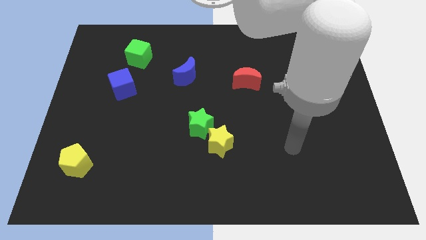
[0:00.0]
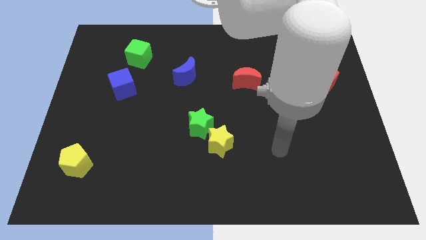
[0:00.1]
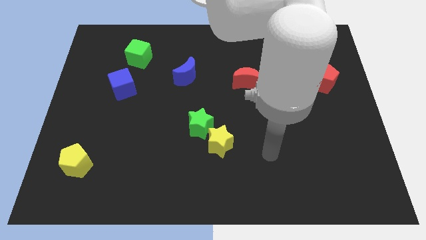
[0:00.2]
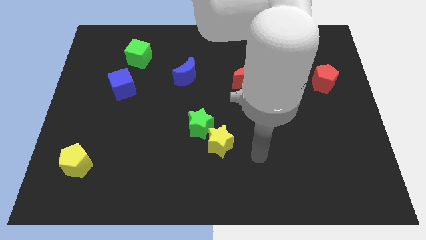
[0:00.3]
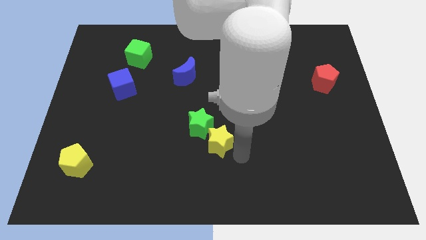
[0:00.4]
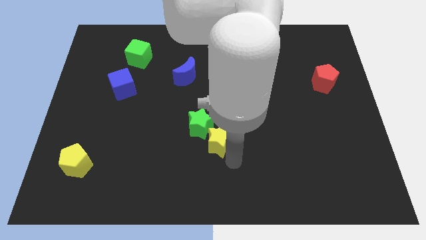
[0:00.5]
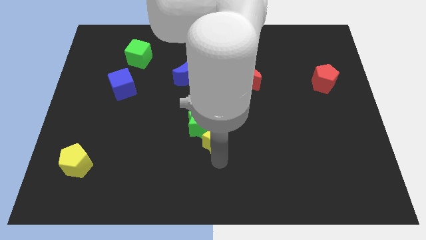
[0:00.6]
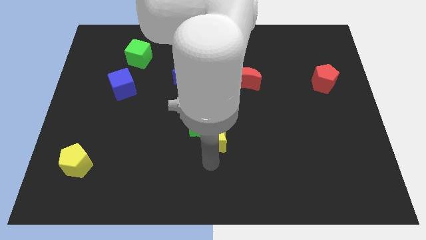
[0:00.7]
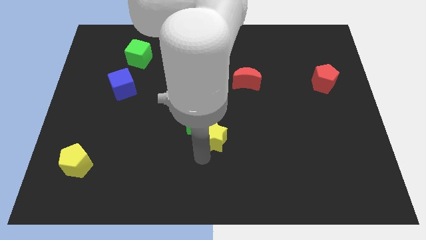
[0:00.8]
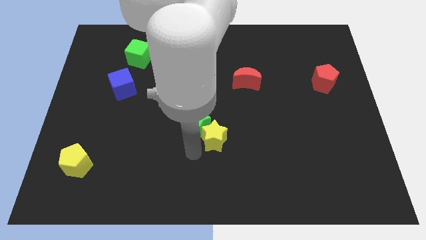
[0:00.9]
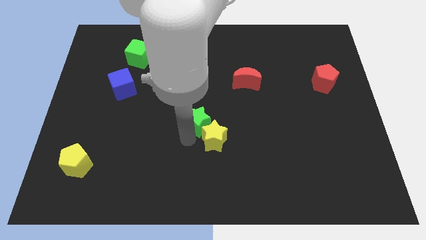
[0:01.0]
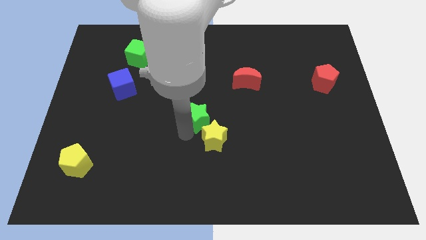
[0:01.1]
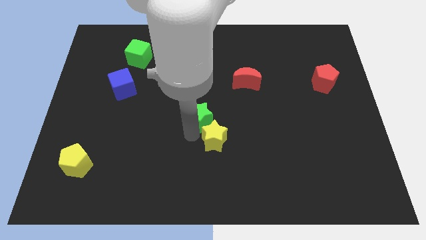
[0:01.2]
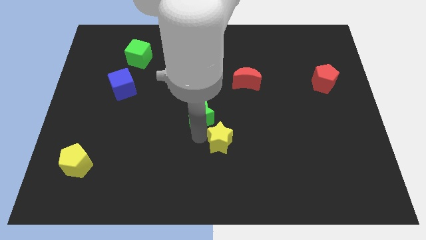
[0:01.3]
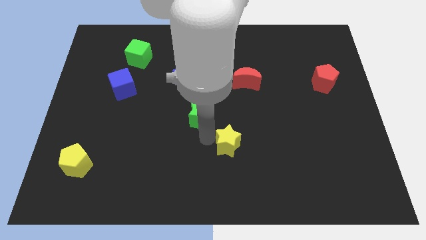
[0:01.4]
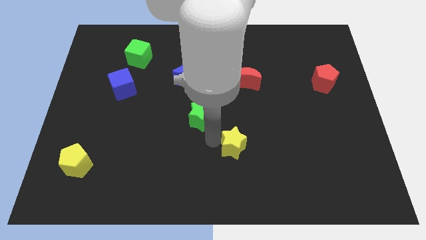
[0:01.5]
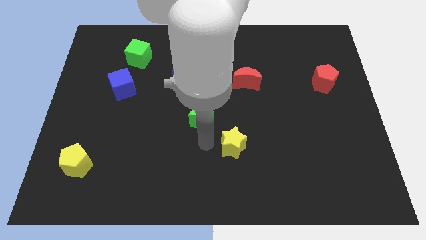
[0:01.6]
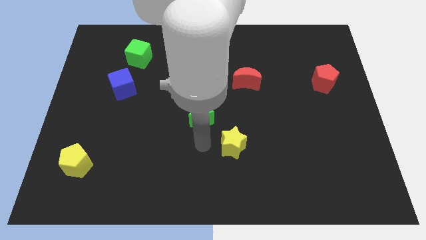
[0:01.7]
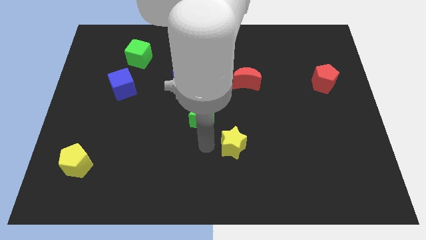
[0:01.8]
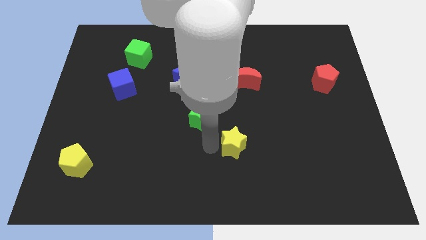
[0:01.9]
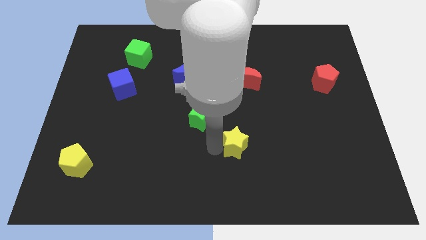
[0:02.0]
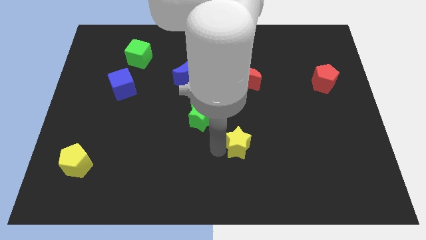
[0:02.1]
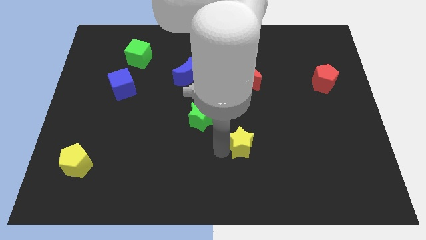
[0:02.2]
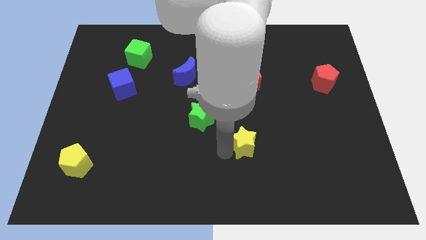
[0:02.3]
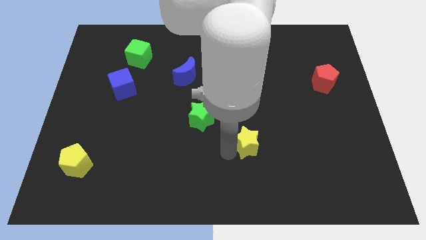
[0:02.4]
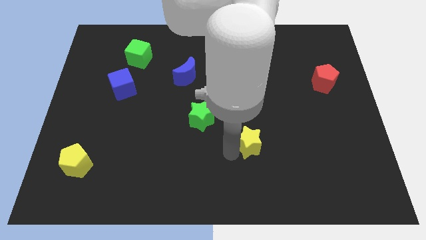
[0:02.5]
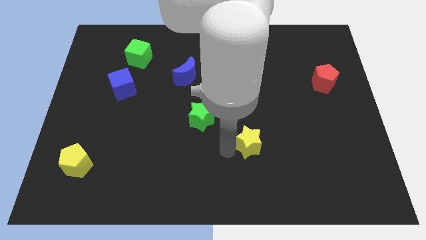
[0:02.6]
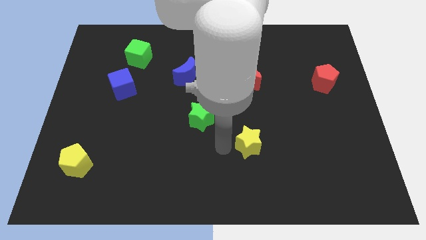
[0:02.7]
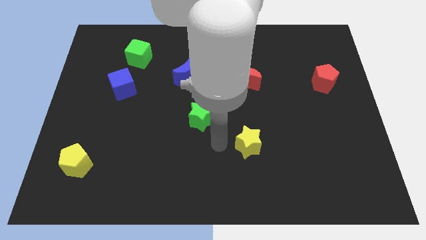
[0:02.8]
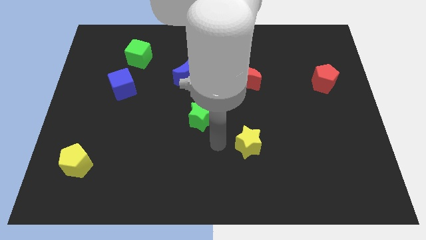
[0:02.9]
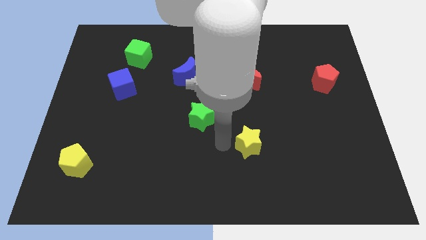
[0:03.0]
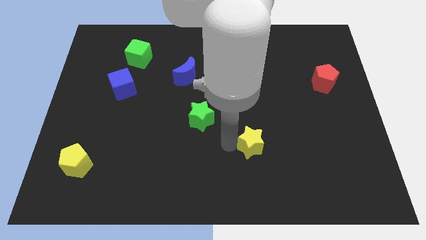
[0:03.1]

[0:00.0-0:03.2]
slightly push the yellow star to the right

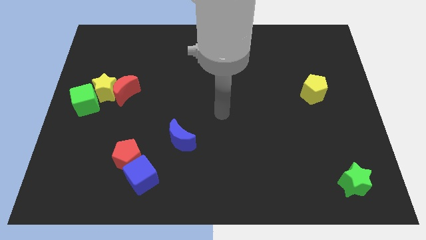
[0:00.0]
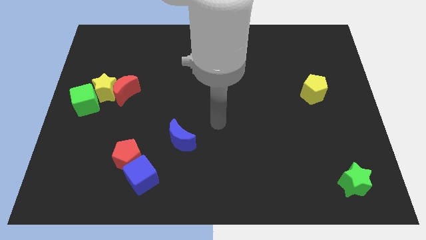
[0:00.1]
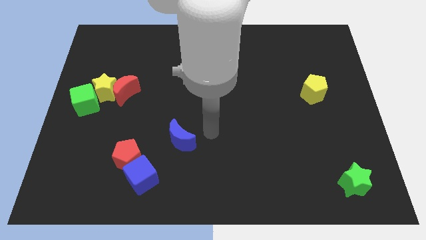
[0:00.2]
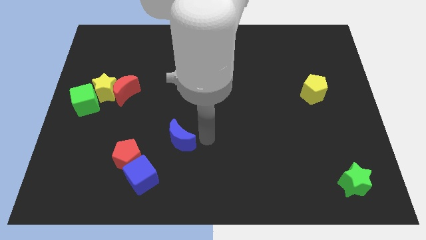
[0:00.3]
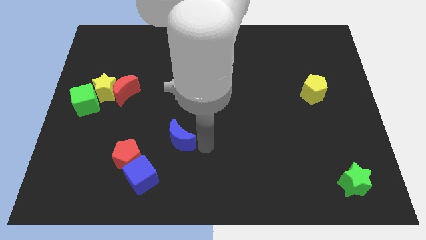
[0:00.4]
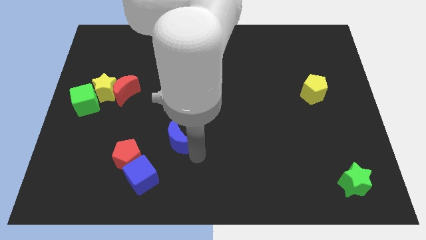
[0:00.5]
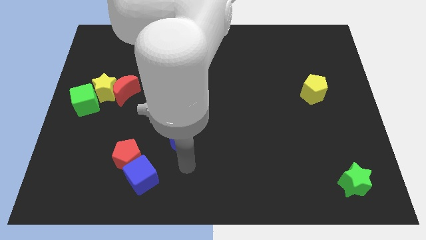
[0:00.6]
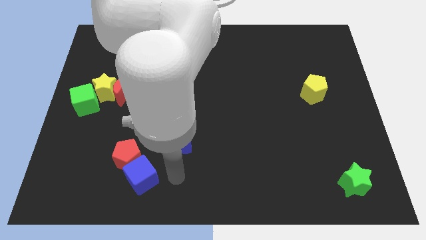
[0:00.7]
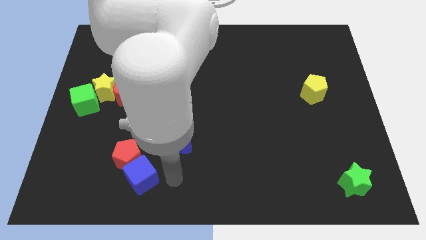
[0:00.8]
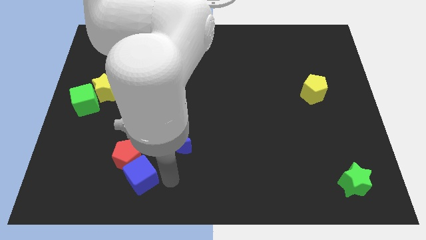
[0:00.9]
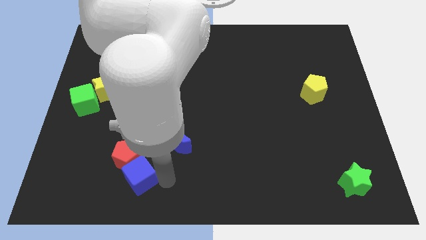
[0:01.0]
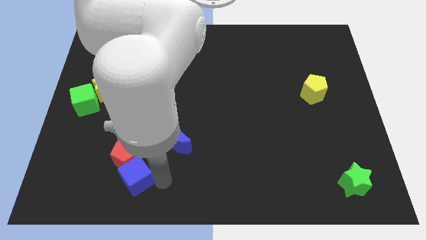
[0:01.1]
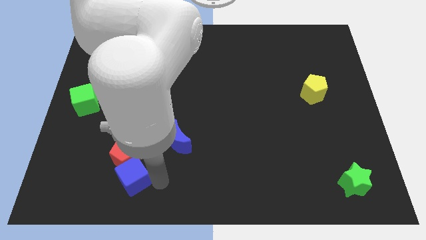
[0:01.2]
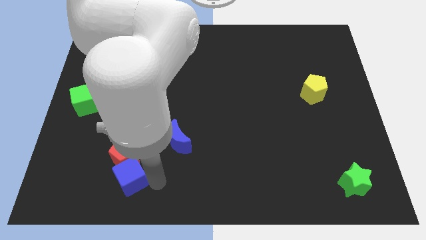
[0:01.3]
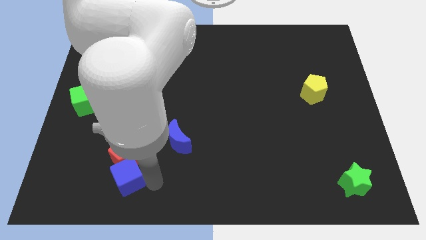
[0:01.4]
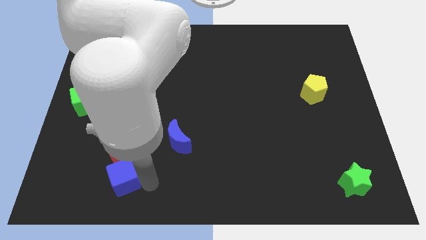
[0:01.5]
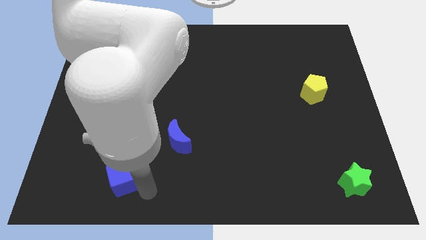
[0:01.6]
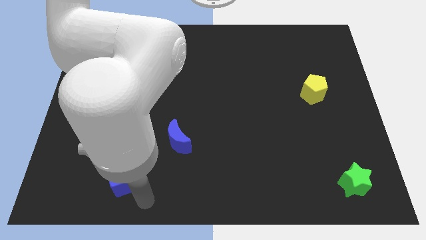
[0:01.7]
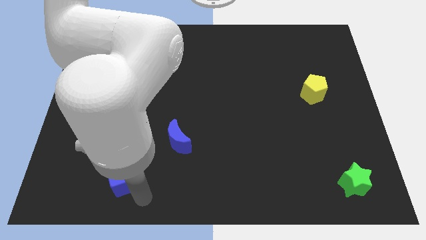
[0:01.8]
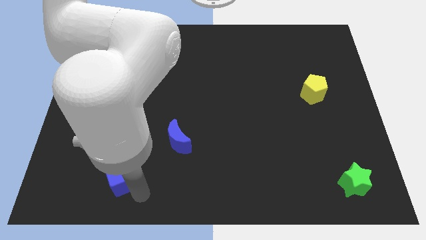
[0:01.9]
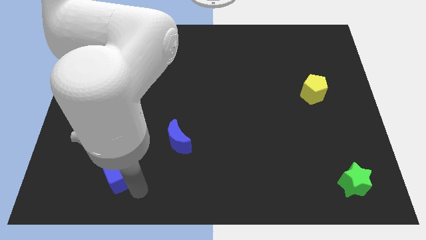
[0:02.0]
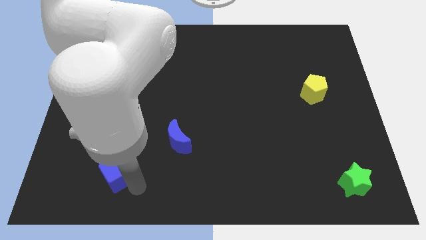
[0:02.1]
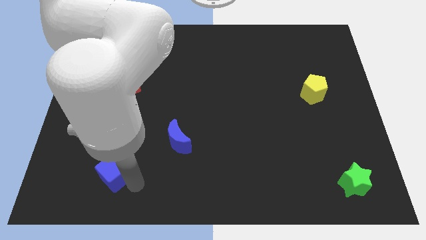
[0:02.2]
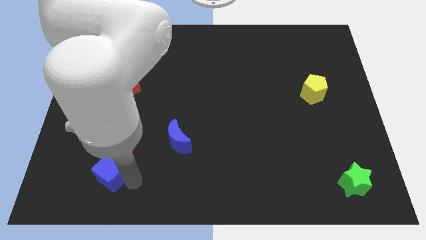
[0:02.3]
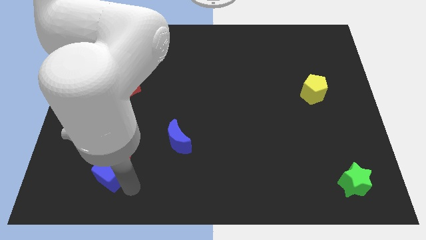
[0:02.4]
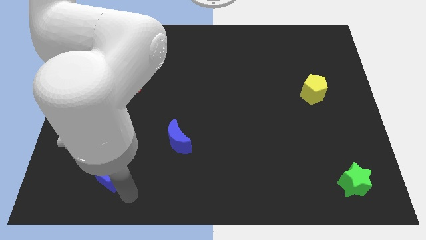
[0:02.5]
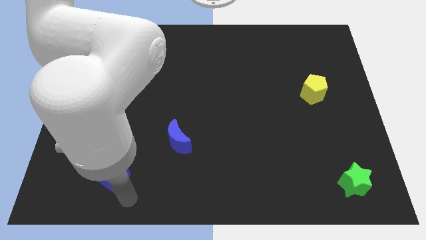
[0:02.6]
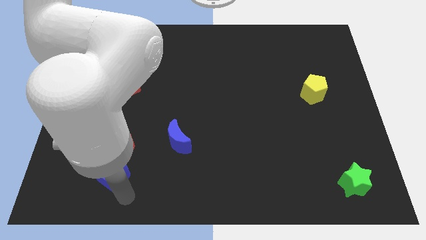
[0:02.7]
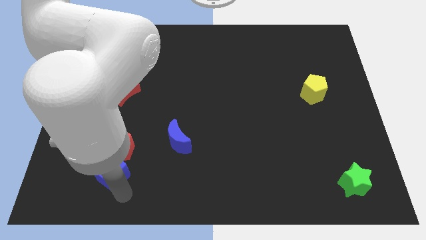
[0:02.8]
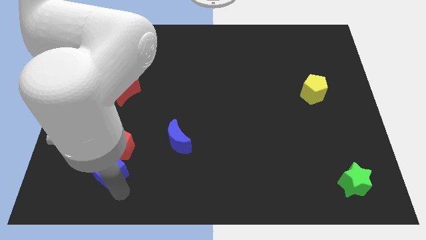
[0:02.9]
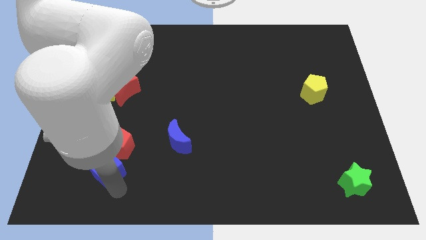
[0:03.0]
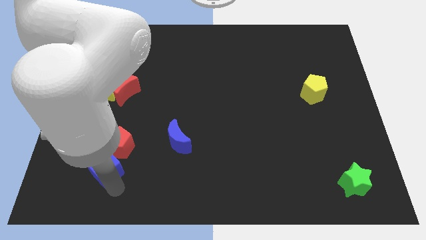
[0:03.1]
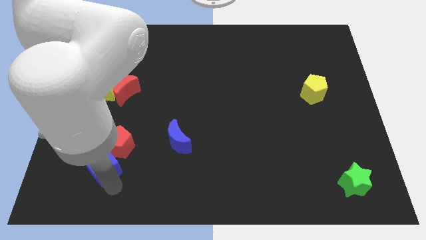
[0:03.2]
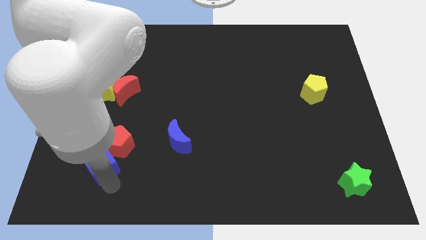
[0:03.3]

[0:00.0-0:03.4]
move the blue cube slightly up and left diagonally

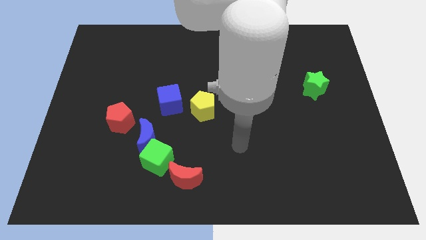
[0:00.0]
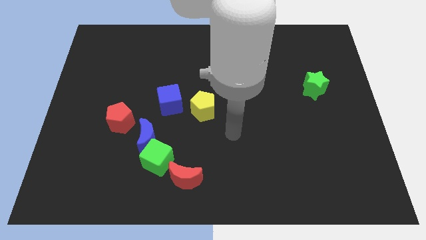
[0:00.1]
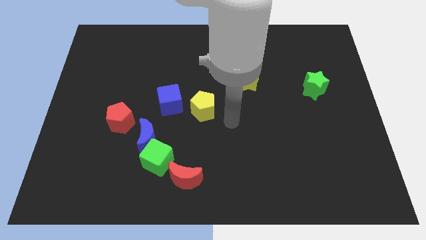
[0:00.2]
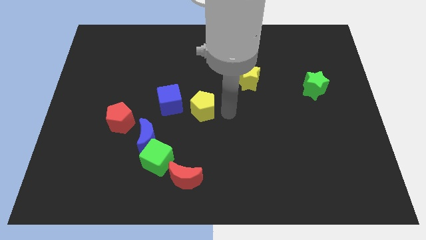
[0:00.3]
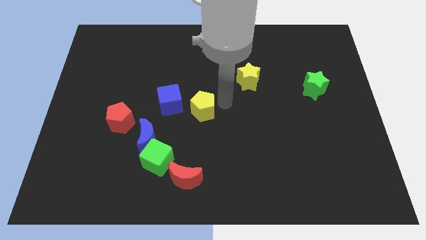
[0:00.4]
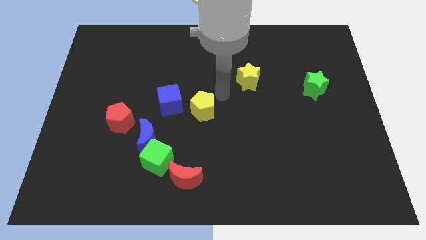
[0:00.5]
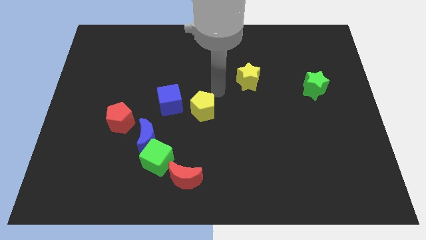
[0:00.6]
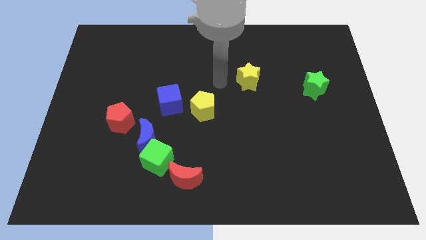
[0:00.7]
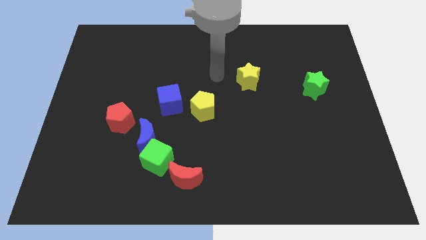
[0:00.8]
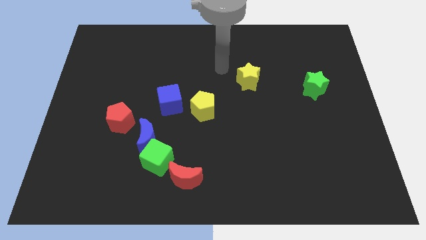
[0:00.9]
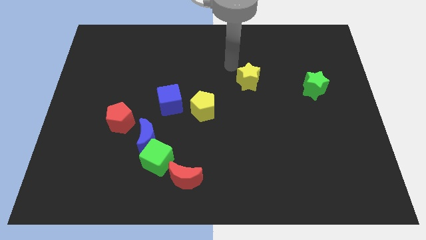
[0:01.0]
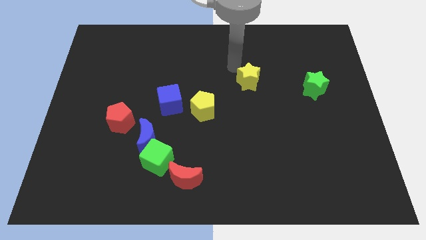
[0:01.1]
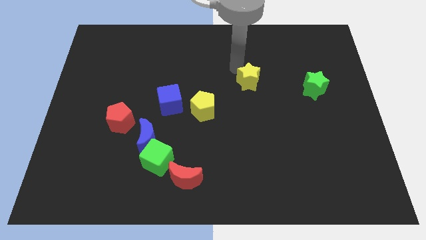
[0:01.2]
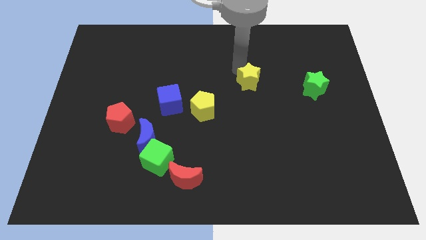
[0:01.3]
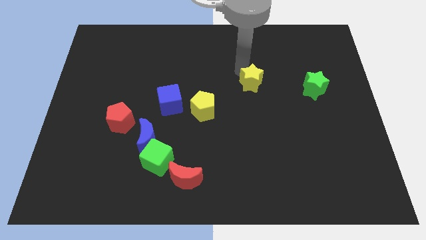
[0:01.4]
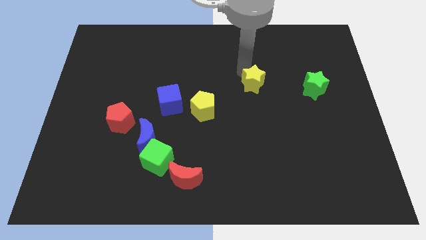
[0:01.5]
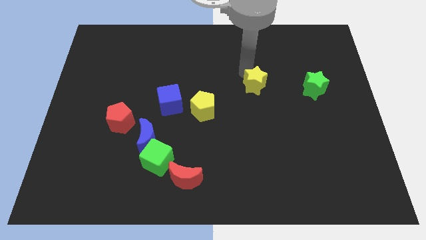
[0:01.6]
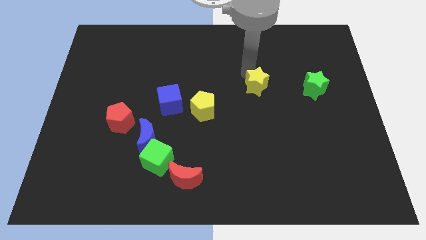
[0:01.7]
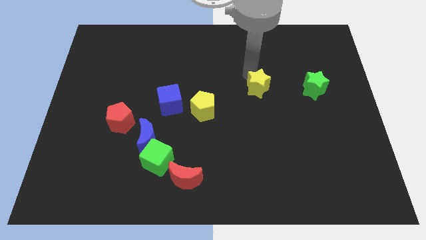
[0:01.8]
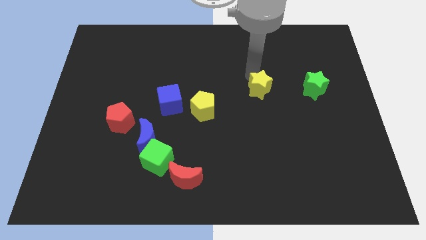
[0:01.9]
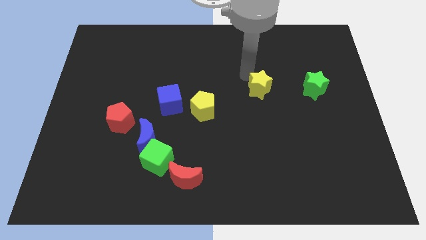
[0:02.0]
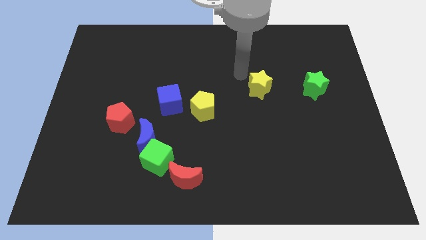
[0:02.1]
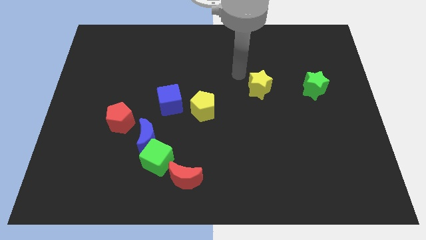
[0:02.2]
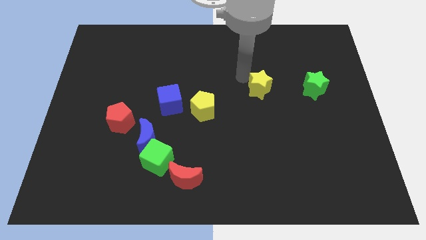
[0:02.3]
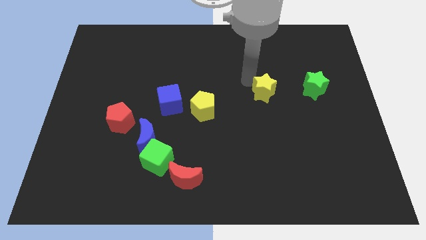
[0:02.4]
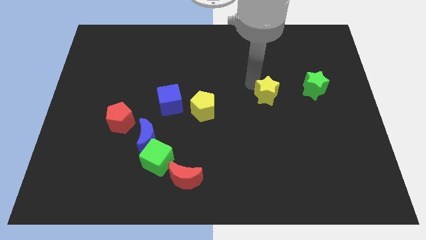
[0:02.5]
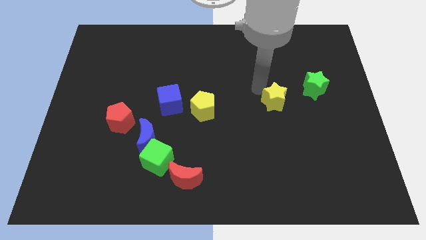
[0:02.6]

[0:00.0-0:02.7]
push the yellow star downwards and to the right slightly
